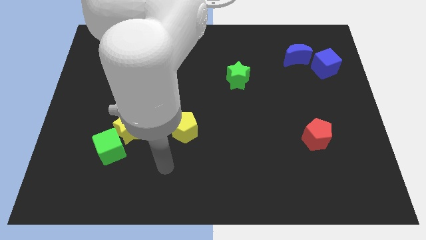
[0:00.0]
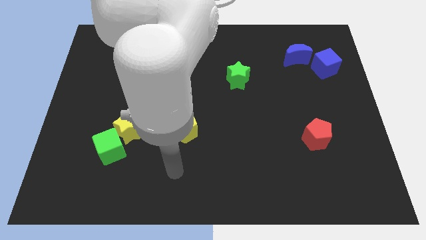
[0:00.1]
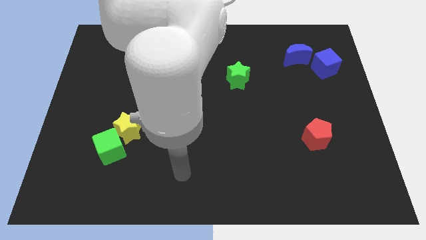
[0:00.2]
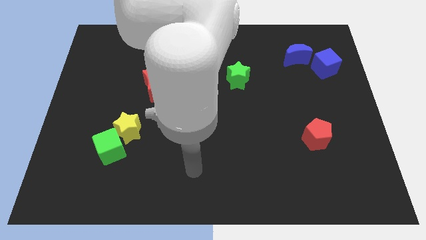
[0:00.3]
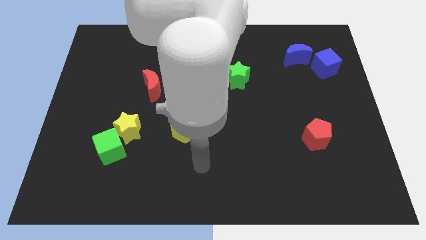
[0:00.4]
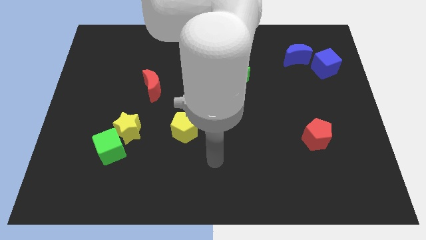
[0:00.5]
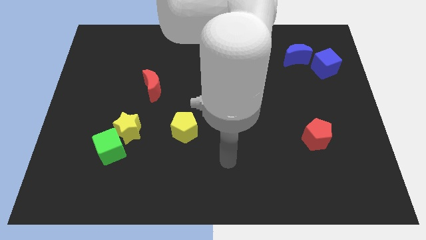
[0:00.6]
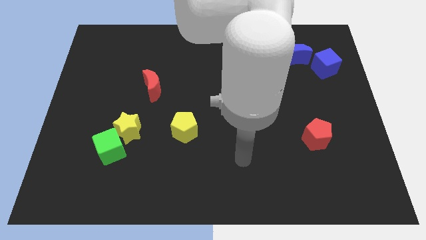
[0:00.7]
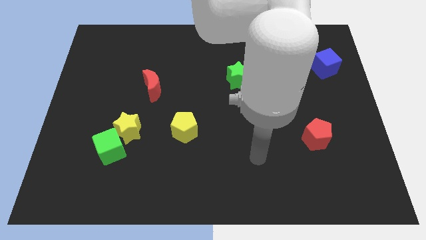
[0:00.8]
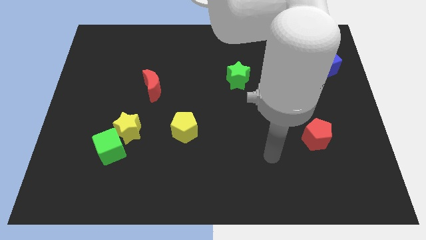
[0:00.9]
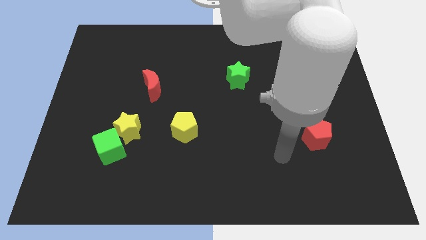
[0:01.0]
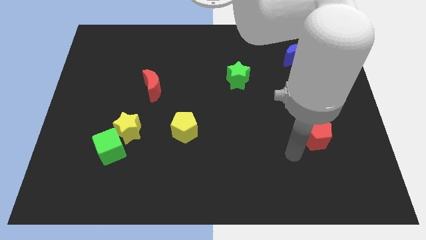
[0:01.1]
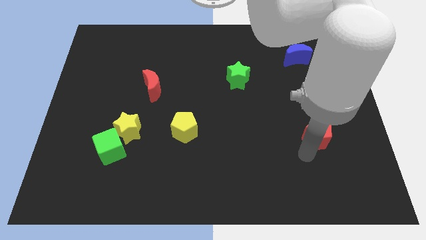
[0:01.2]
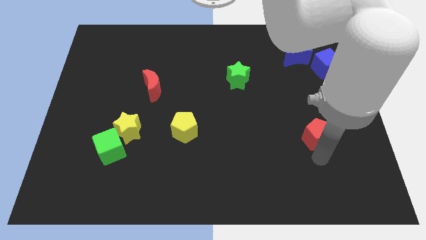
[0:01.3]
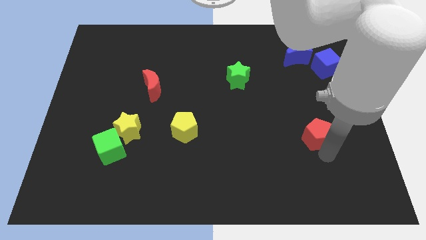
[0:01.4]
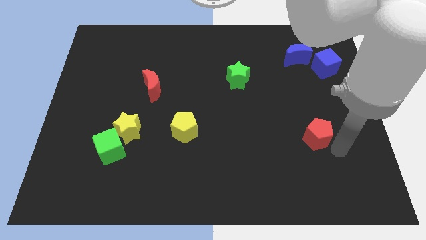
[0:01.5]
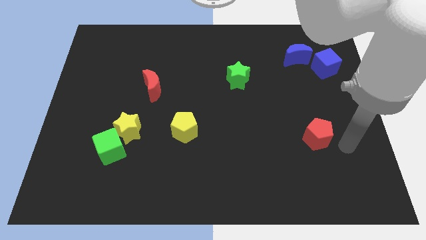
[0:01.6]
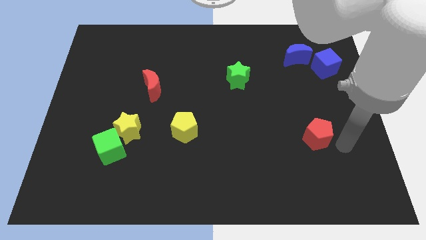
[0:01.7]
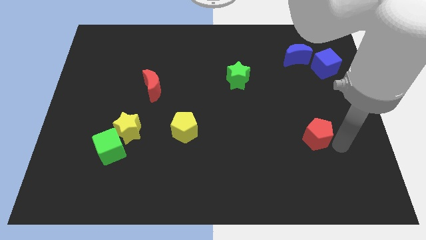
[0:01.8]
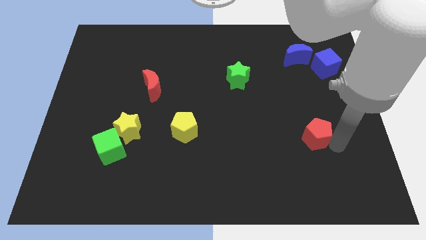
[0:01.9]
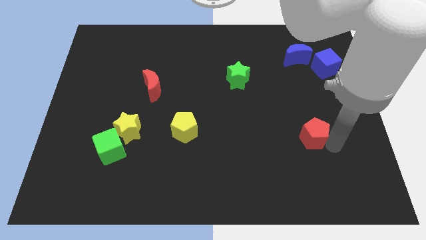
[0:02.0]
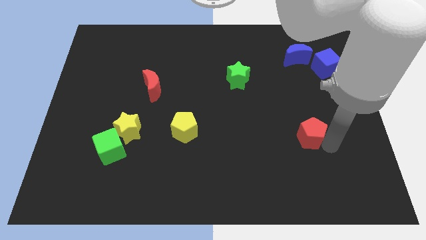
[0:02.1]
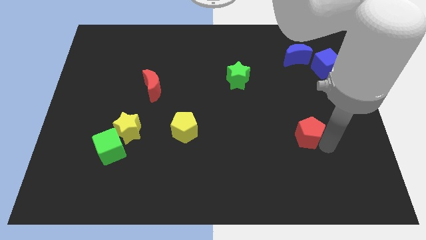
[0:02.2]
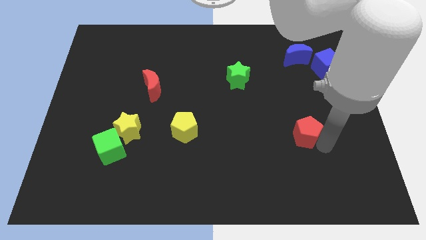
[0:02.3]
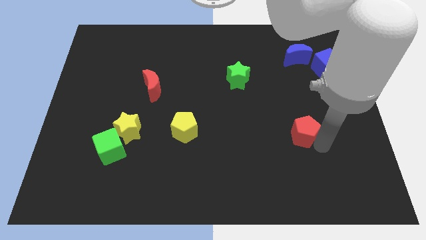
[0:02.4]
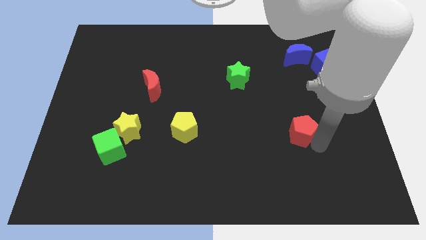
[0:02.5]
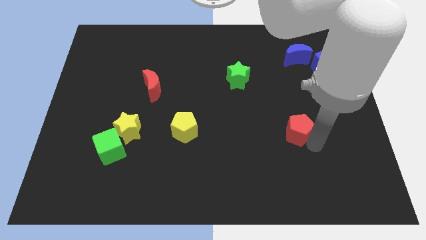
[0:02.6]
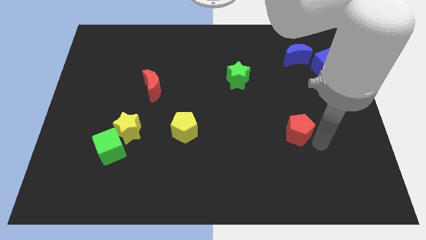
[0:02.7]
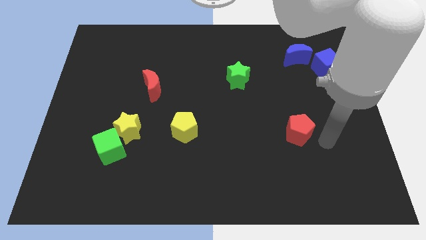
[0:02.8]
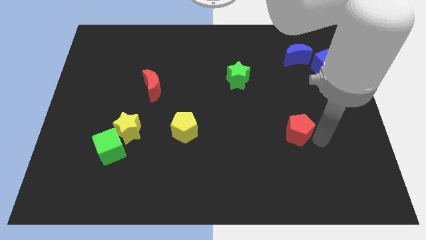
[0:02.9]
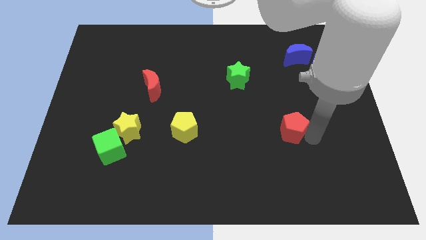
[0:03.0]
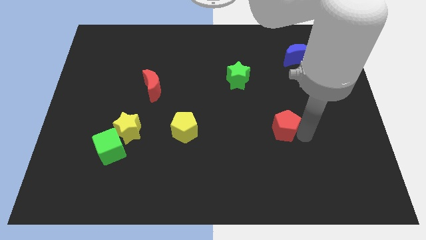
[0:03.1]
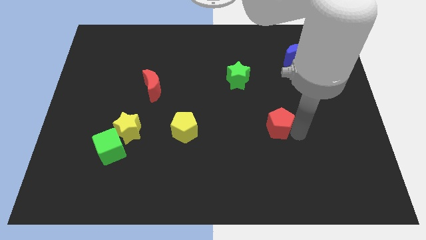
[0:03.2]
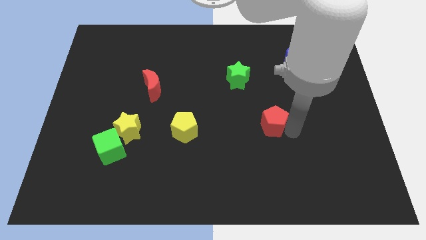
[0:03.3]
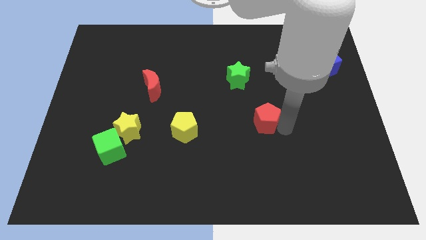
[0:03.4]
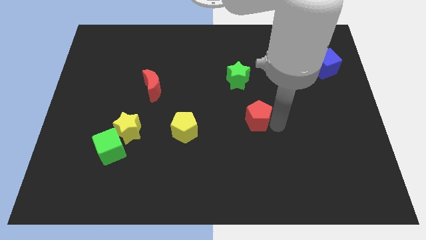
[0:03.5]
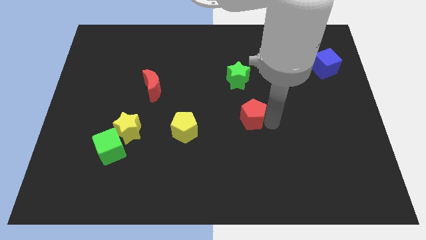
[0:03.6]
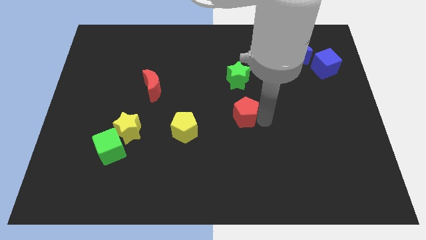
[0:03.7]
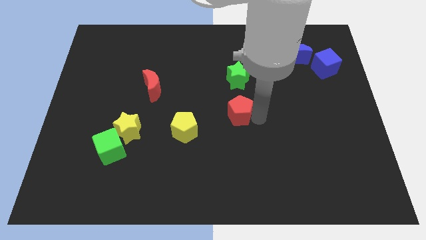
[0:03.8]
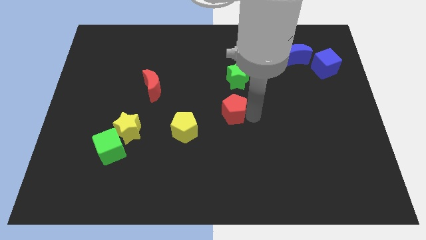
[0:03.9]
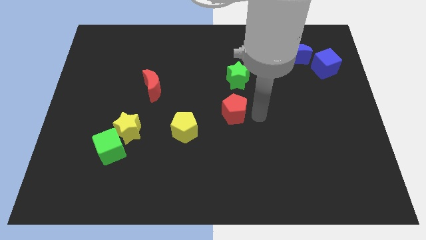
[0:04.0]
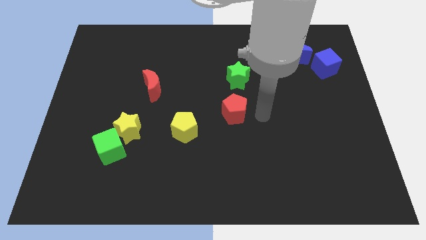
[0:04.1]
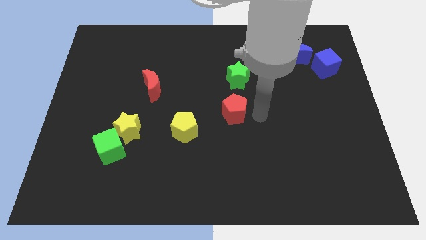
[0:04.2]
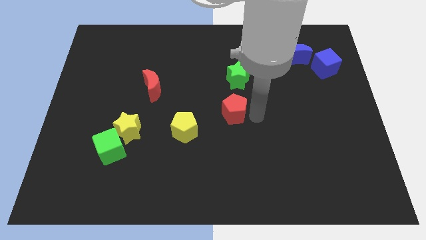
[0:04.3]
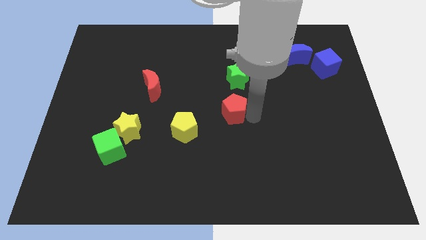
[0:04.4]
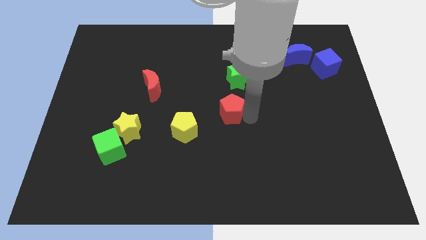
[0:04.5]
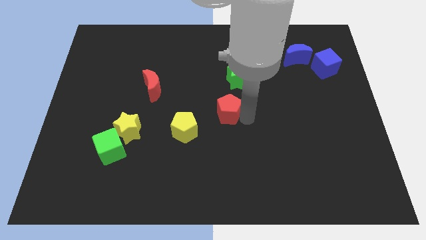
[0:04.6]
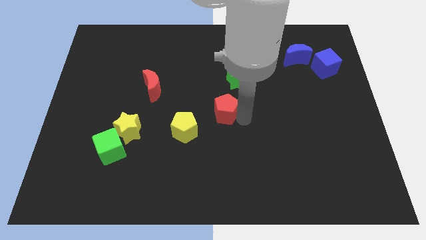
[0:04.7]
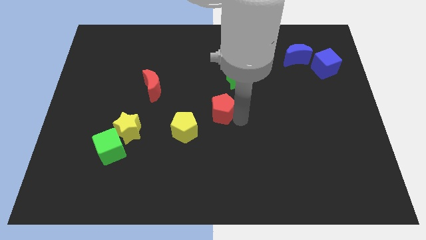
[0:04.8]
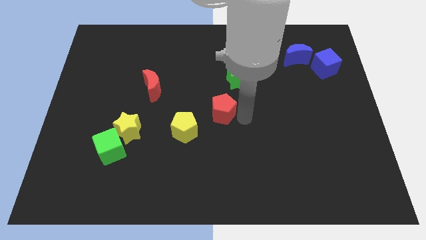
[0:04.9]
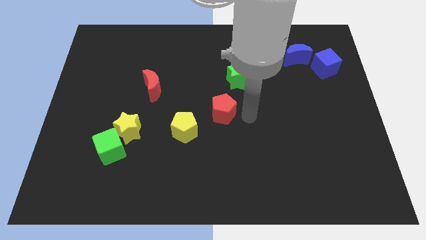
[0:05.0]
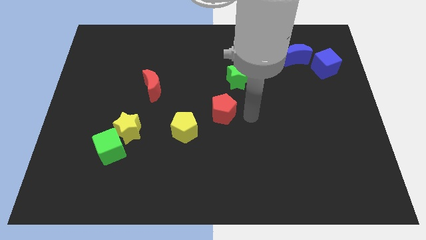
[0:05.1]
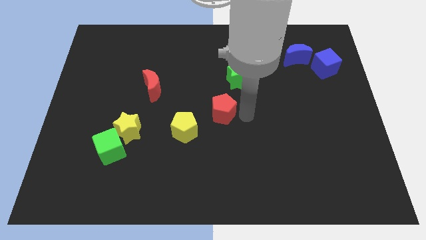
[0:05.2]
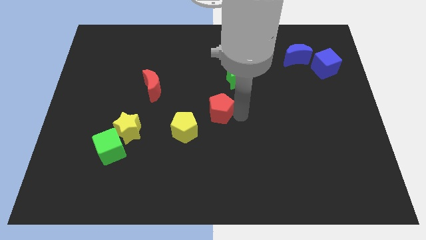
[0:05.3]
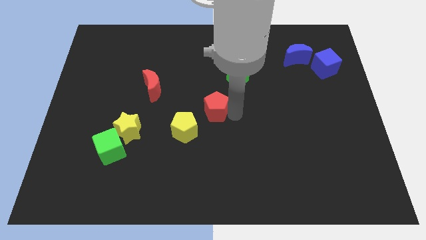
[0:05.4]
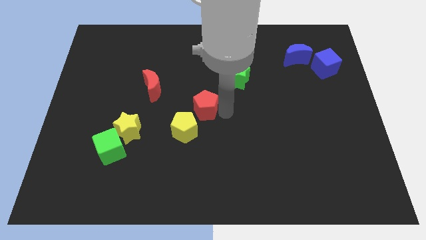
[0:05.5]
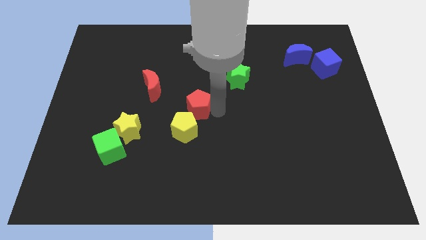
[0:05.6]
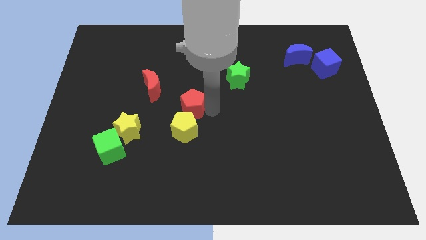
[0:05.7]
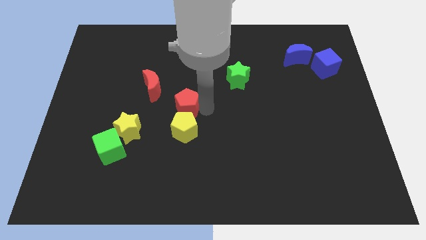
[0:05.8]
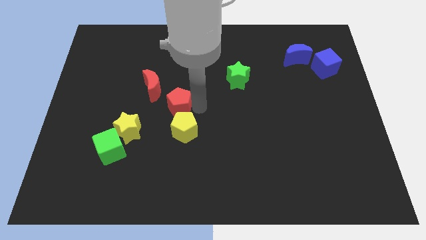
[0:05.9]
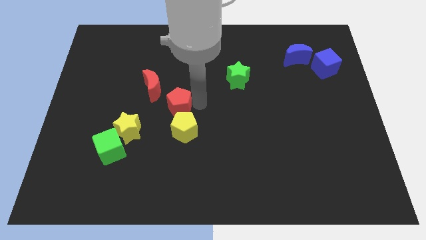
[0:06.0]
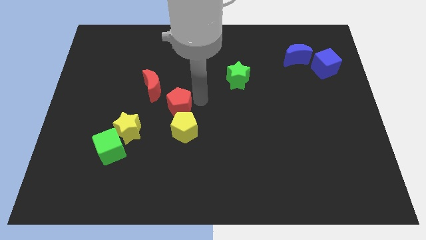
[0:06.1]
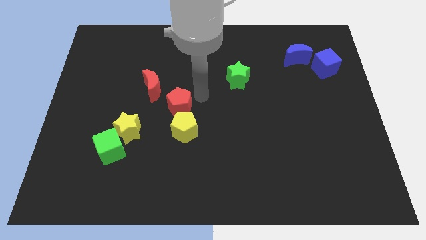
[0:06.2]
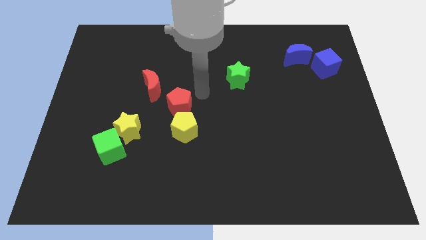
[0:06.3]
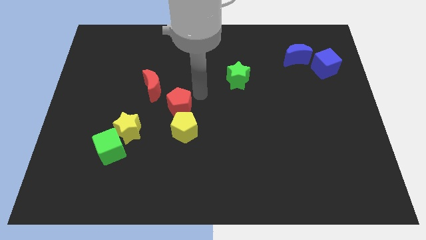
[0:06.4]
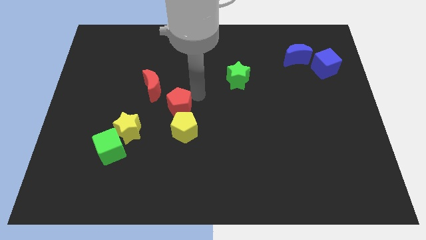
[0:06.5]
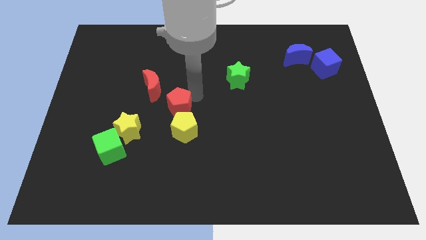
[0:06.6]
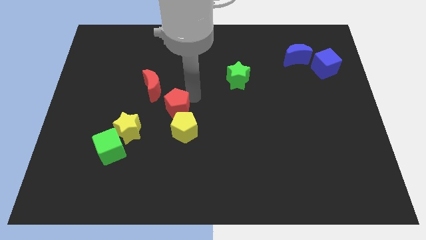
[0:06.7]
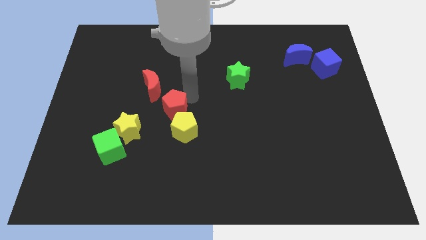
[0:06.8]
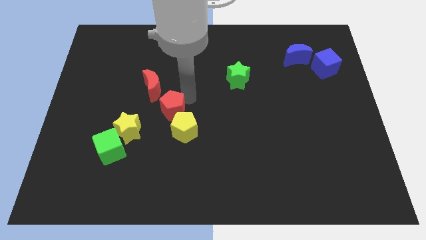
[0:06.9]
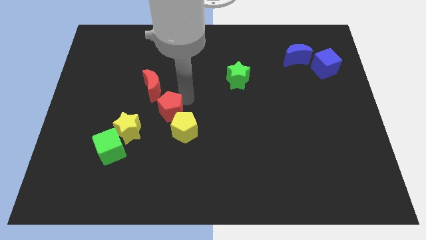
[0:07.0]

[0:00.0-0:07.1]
put the red pentagon to the bottom of the red moon

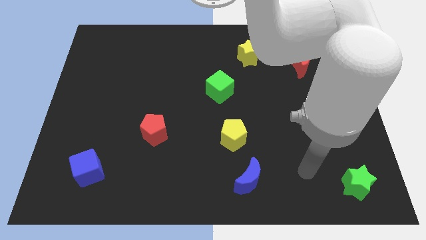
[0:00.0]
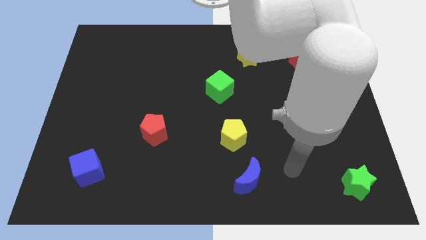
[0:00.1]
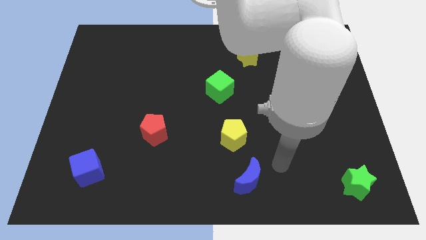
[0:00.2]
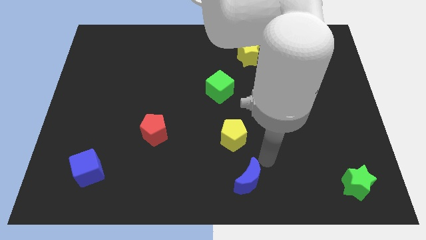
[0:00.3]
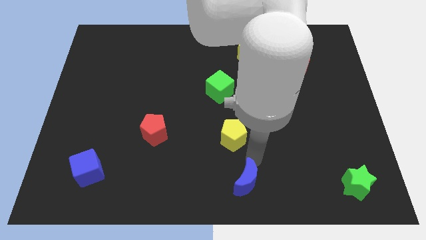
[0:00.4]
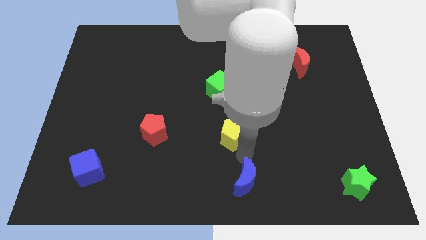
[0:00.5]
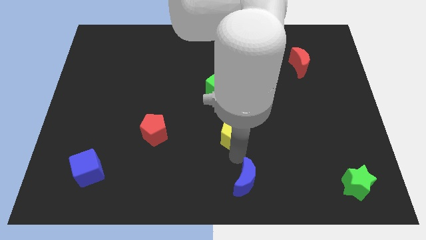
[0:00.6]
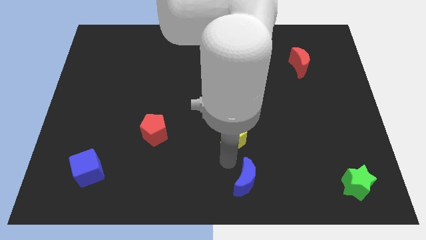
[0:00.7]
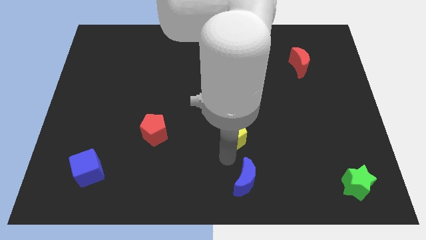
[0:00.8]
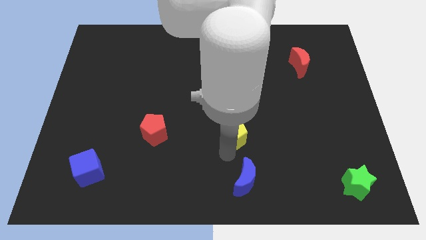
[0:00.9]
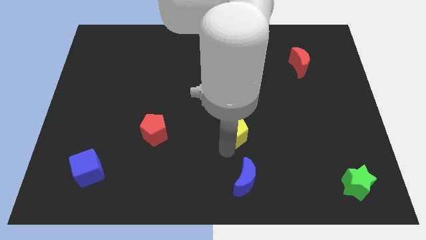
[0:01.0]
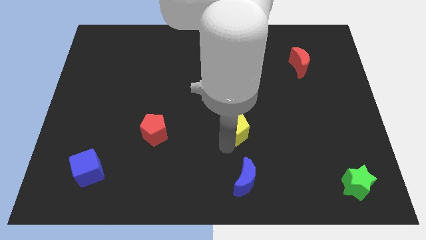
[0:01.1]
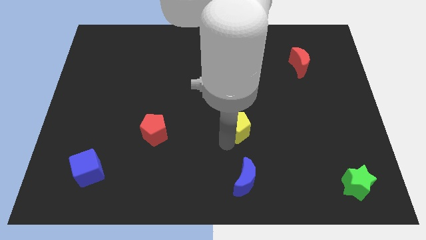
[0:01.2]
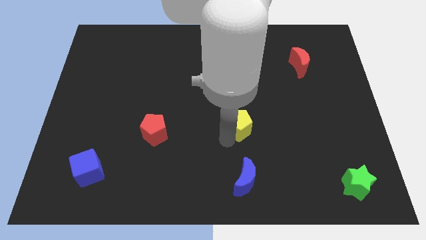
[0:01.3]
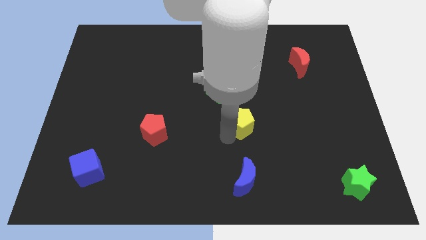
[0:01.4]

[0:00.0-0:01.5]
move the yellow pentagon diagonally down and to the right of the green cube

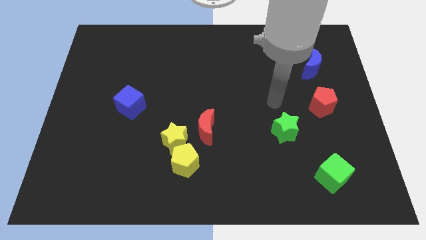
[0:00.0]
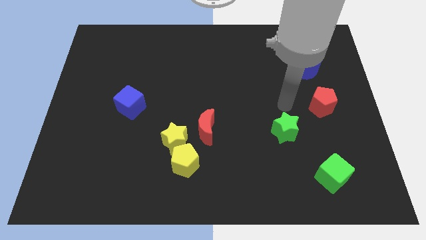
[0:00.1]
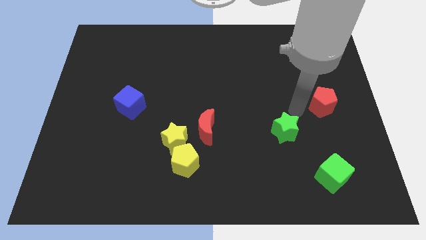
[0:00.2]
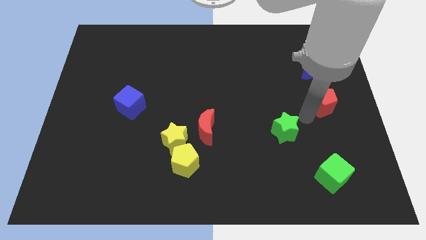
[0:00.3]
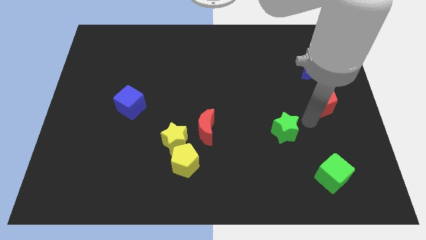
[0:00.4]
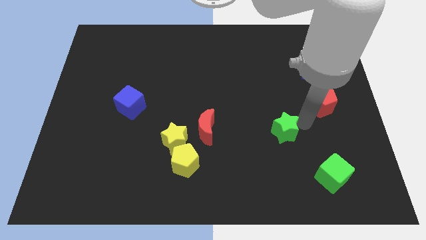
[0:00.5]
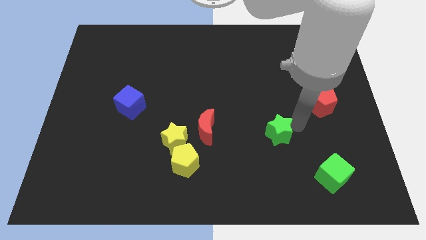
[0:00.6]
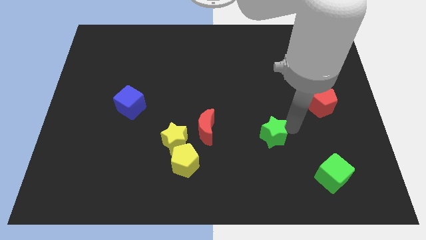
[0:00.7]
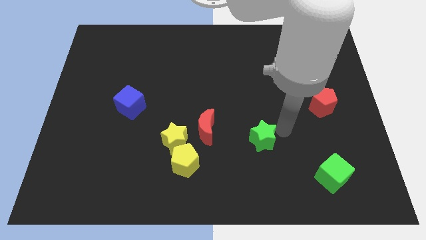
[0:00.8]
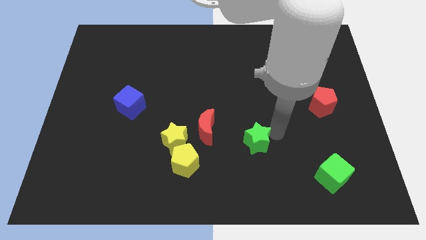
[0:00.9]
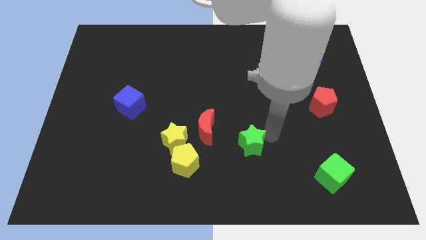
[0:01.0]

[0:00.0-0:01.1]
put the green star to the right of the yellow star
